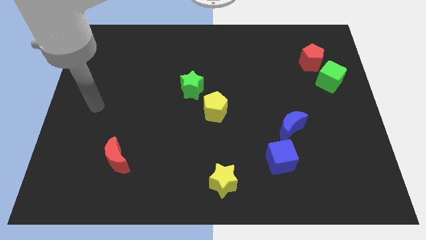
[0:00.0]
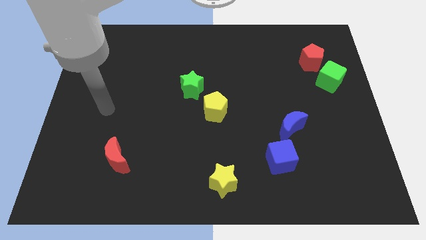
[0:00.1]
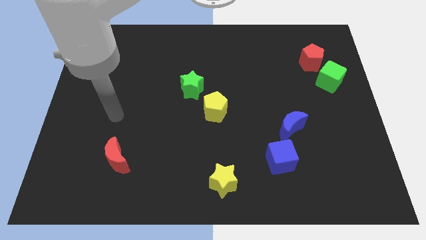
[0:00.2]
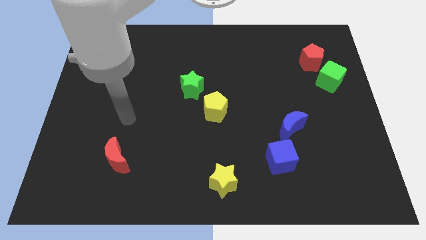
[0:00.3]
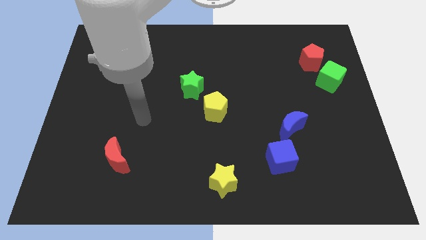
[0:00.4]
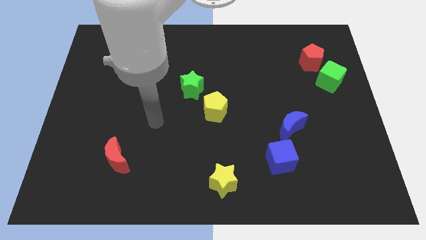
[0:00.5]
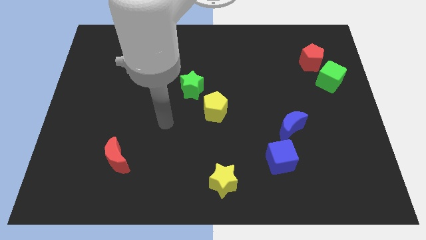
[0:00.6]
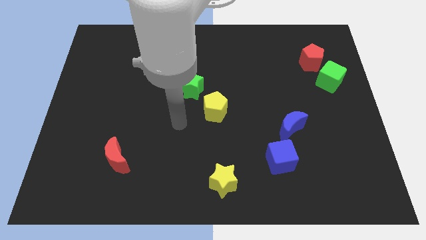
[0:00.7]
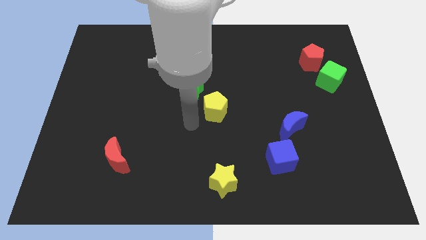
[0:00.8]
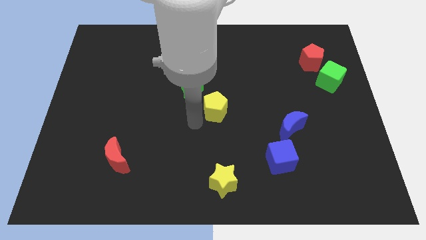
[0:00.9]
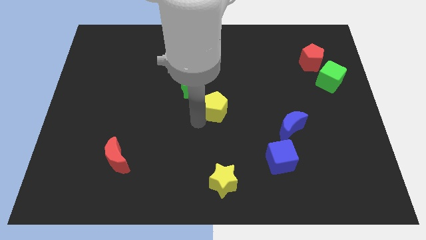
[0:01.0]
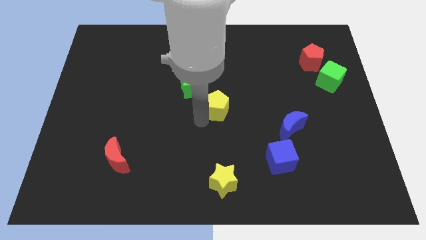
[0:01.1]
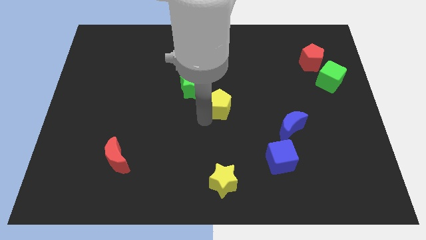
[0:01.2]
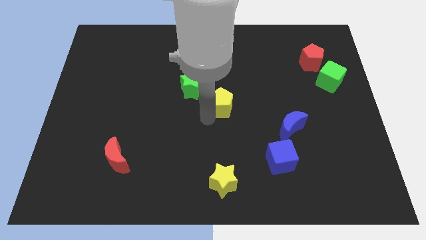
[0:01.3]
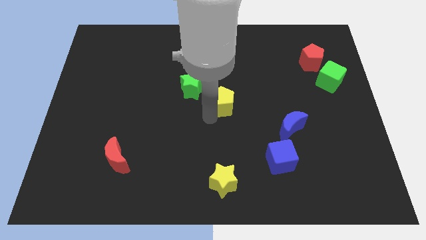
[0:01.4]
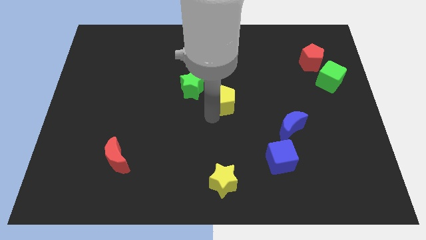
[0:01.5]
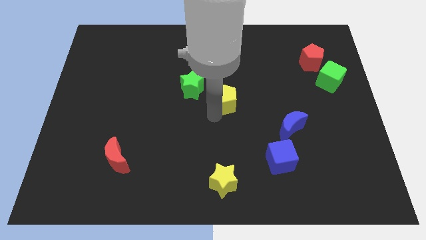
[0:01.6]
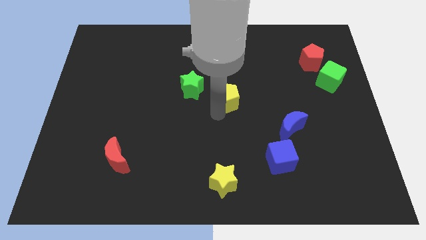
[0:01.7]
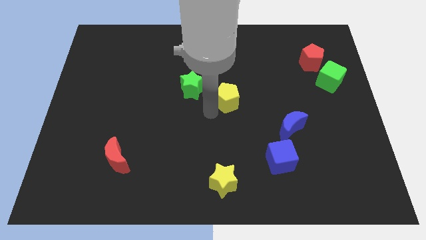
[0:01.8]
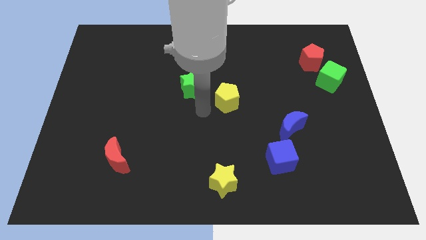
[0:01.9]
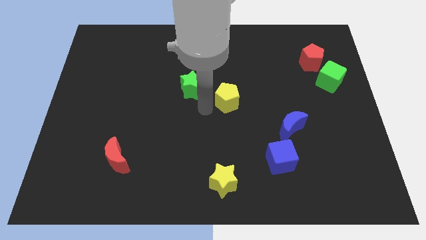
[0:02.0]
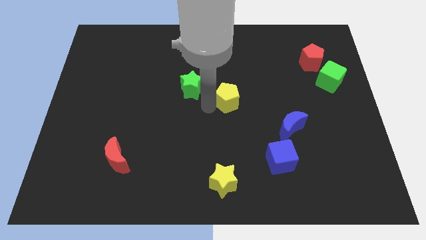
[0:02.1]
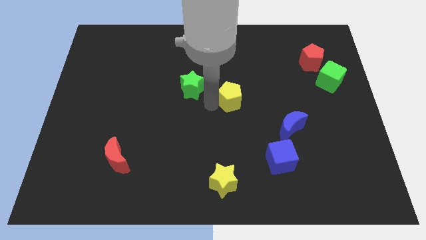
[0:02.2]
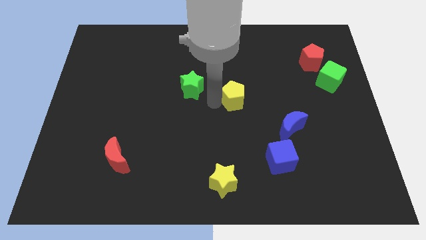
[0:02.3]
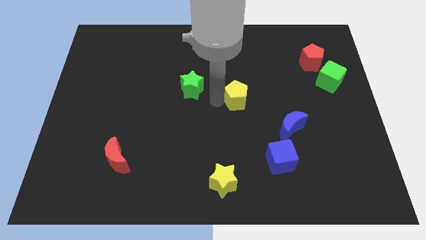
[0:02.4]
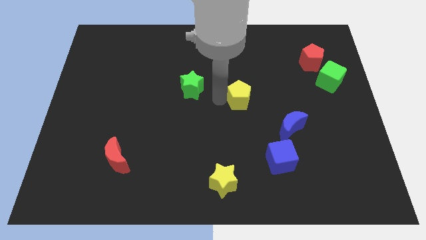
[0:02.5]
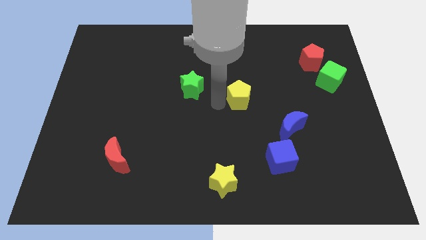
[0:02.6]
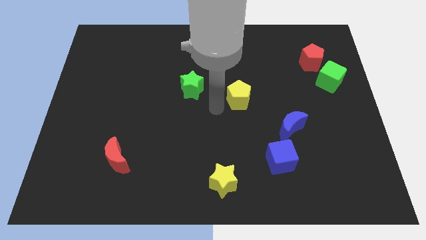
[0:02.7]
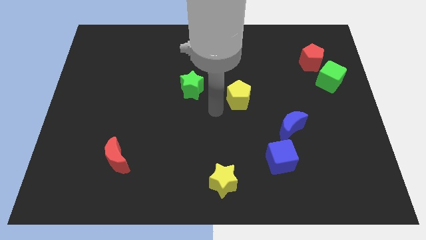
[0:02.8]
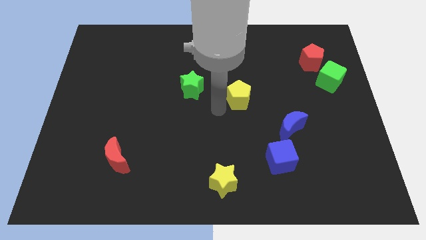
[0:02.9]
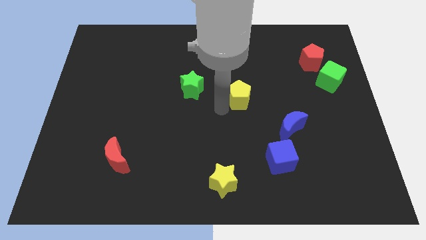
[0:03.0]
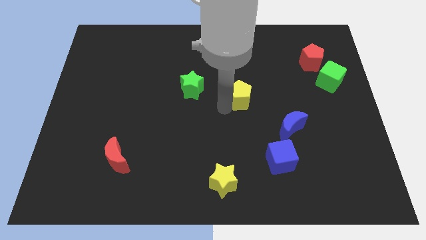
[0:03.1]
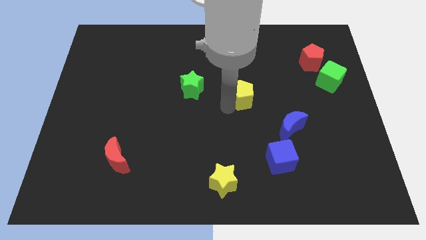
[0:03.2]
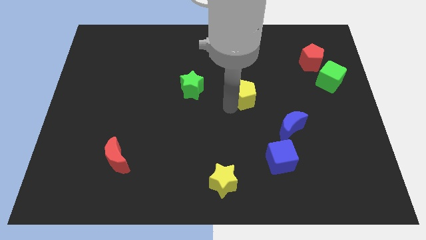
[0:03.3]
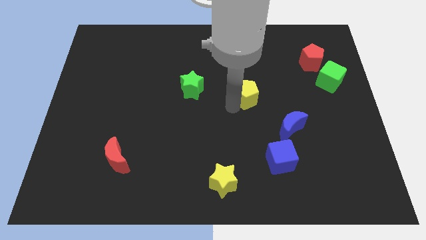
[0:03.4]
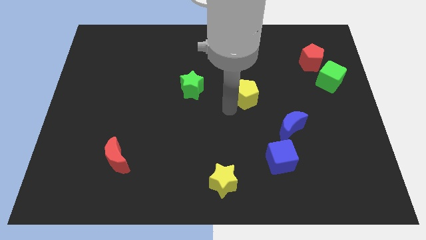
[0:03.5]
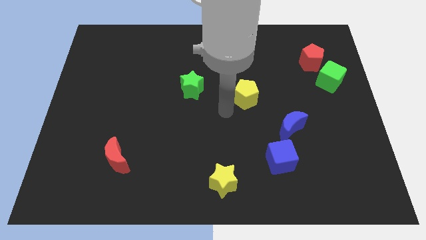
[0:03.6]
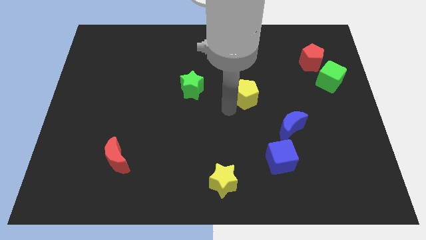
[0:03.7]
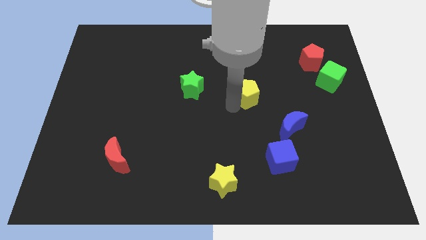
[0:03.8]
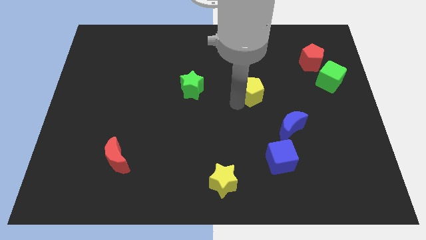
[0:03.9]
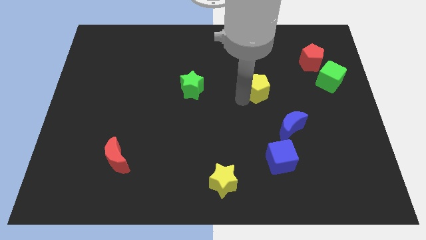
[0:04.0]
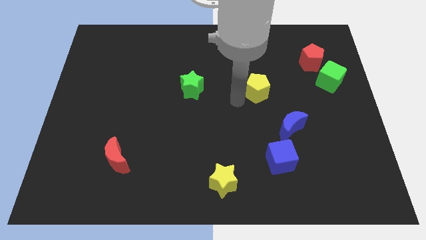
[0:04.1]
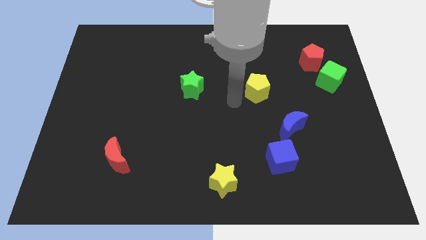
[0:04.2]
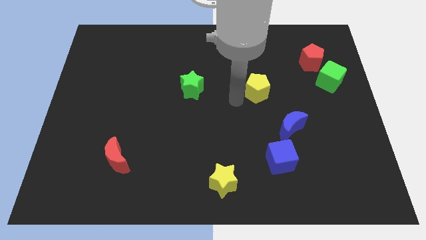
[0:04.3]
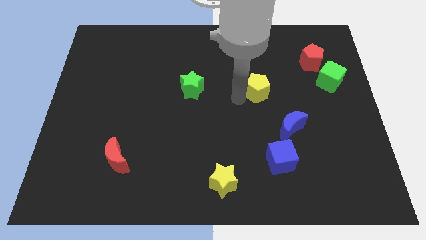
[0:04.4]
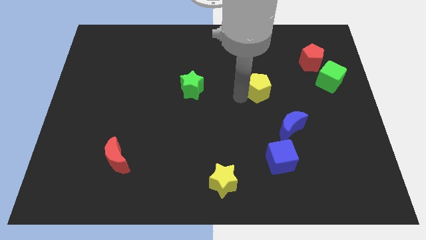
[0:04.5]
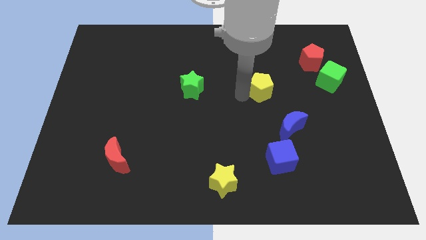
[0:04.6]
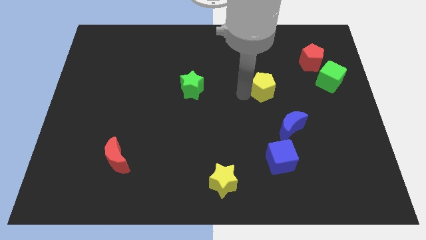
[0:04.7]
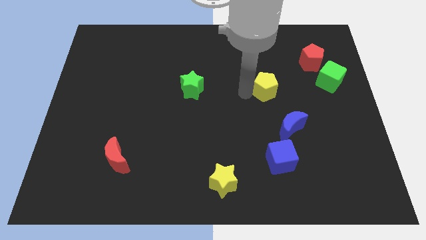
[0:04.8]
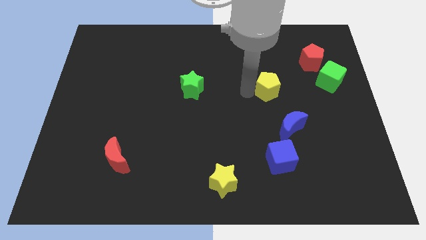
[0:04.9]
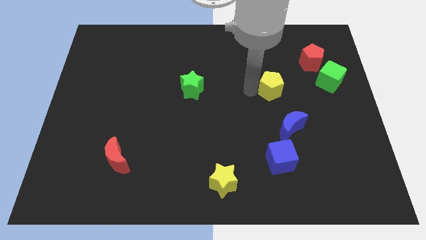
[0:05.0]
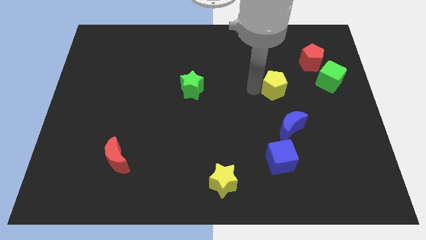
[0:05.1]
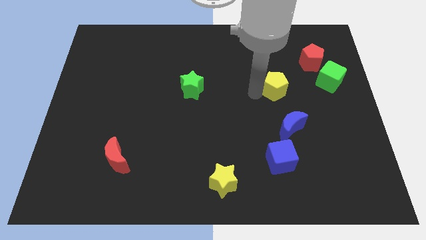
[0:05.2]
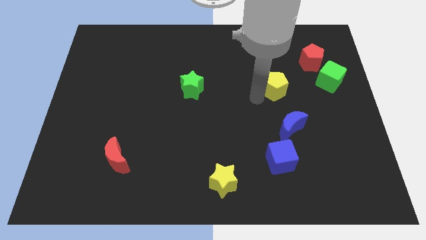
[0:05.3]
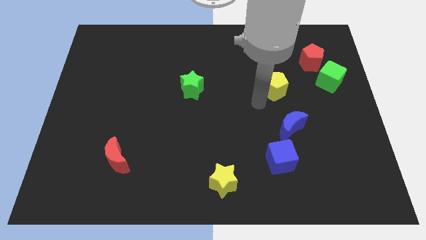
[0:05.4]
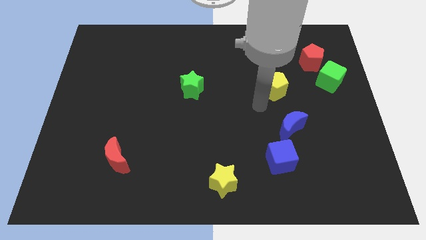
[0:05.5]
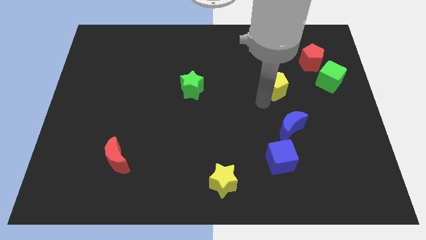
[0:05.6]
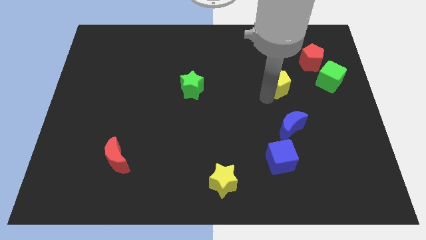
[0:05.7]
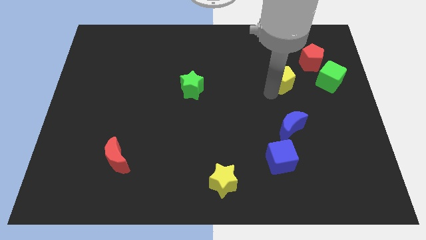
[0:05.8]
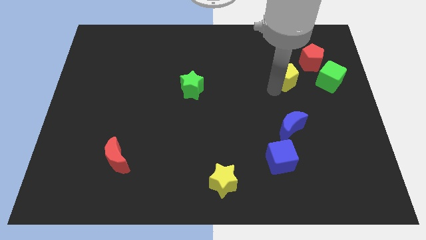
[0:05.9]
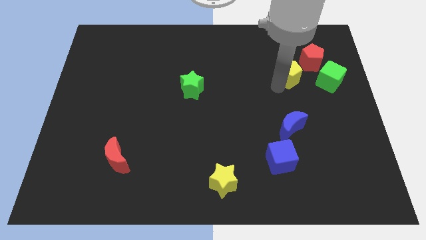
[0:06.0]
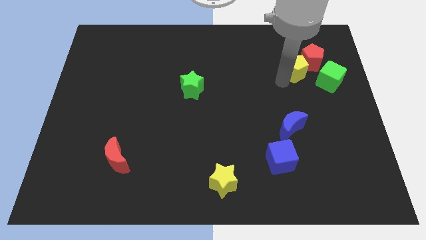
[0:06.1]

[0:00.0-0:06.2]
slide the yellow pentagon close to the red pentagon

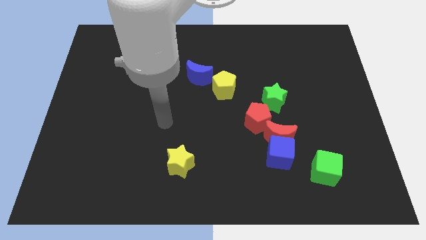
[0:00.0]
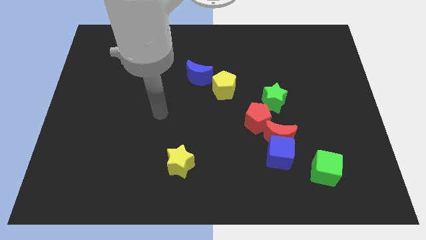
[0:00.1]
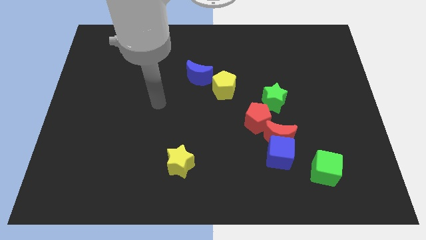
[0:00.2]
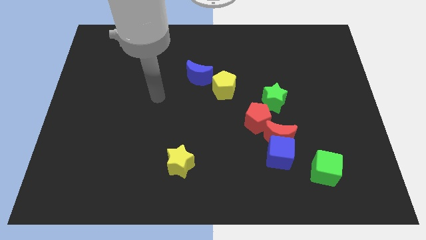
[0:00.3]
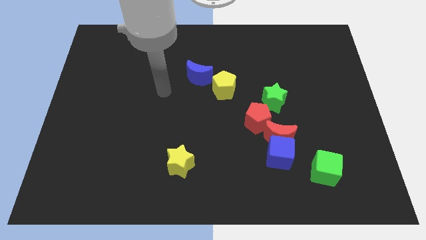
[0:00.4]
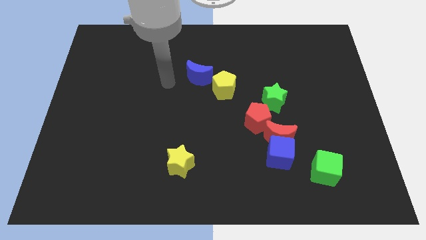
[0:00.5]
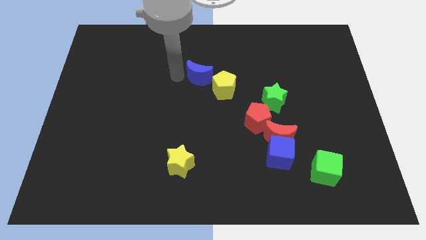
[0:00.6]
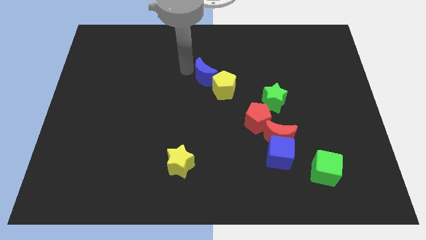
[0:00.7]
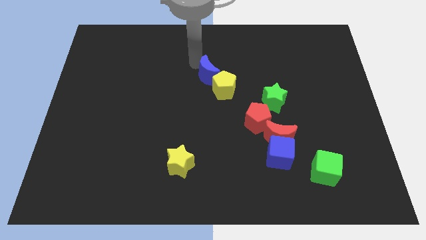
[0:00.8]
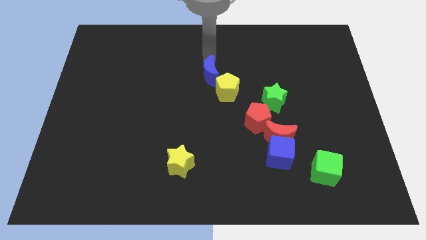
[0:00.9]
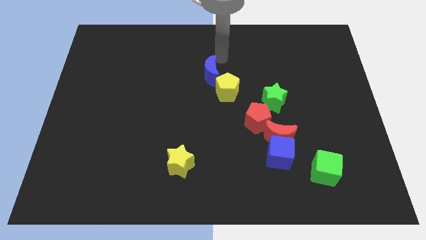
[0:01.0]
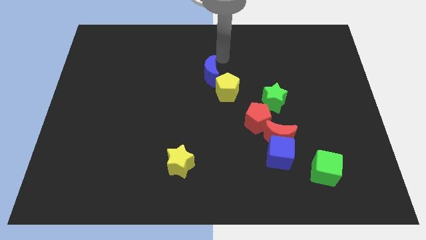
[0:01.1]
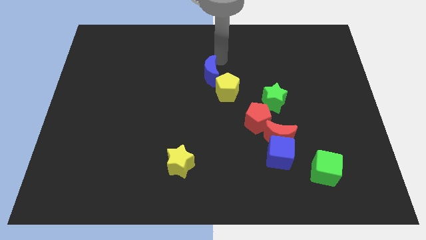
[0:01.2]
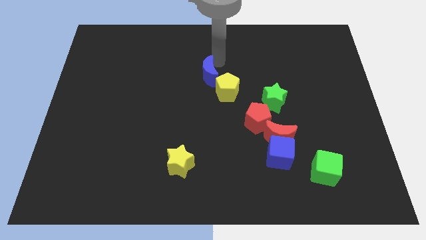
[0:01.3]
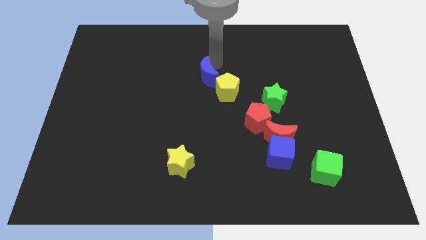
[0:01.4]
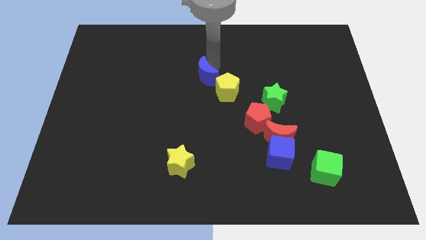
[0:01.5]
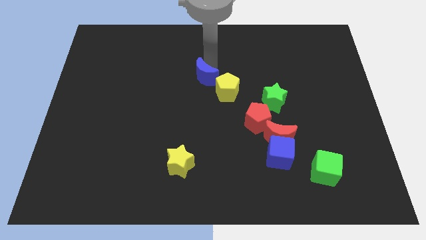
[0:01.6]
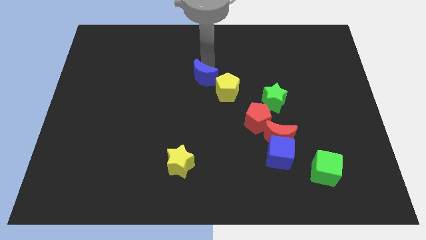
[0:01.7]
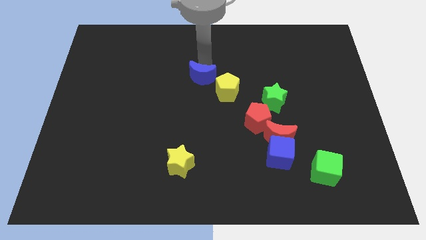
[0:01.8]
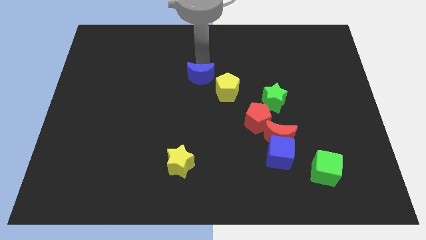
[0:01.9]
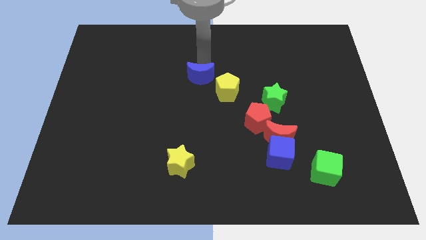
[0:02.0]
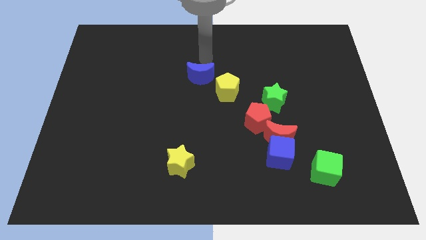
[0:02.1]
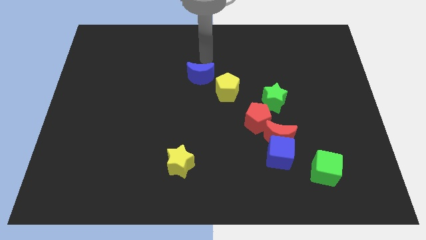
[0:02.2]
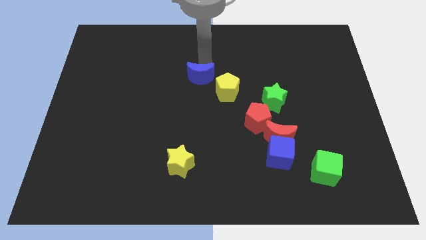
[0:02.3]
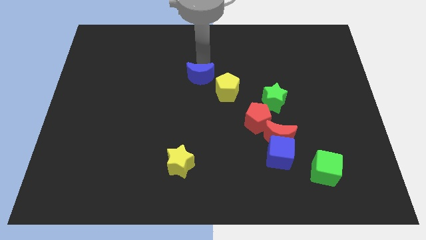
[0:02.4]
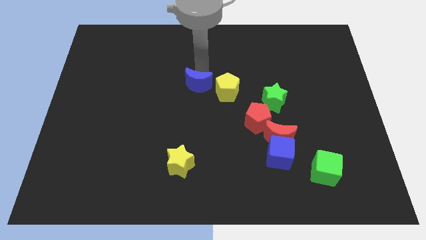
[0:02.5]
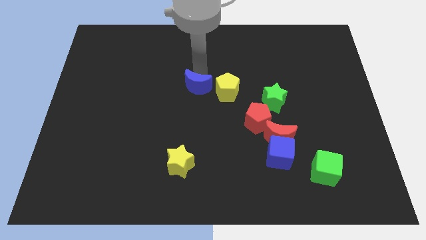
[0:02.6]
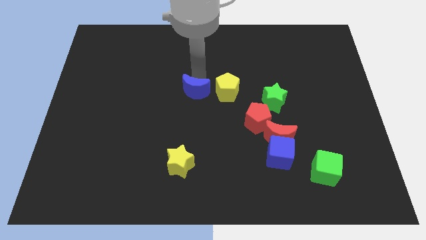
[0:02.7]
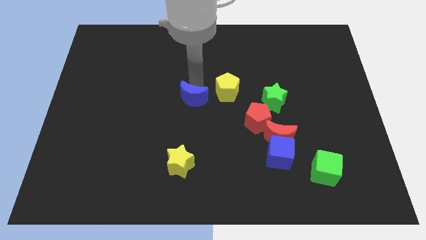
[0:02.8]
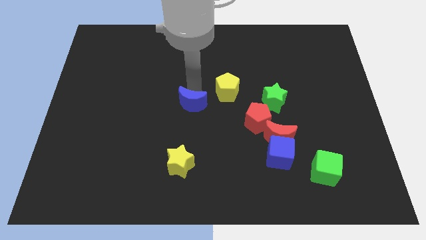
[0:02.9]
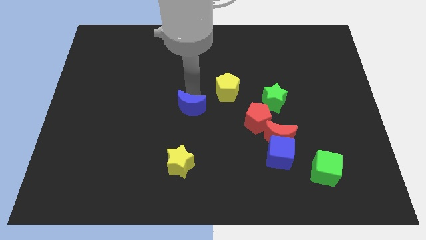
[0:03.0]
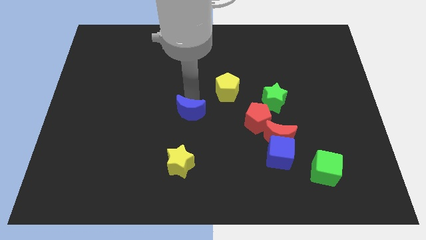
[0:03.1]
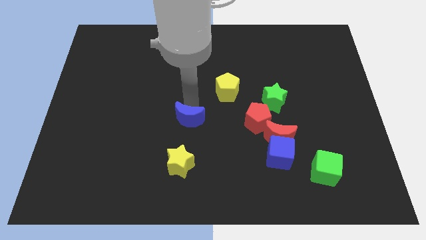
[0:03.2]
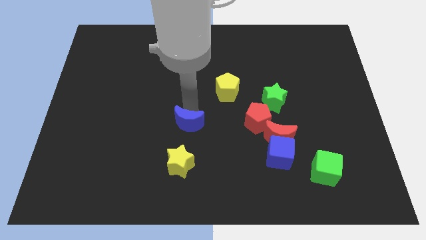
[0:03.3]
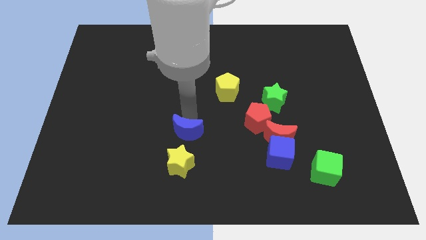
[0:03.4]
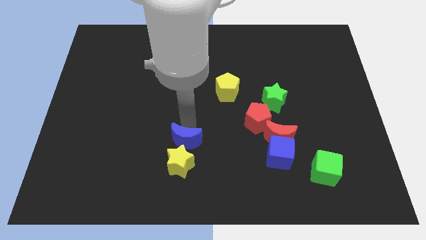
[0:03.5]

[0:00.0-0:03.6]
slide the blue moon next to the yellow star
